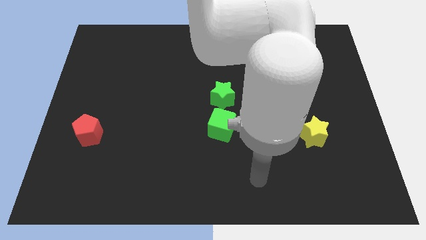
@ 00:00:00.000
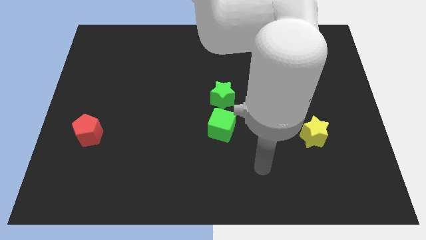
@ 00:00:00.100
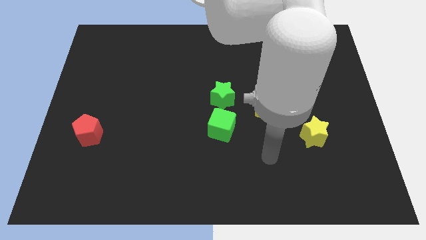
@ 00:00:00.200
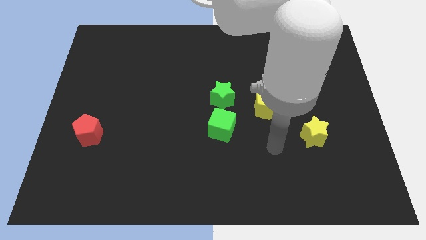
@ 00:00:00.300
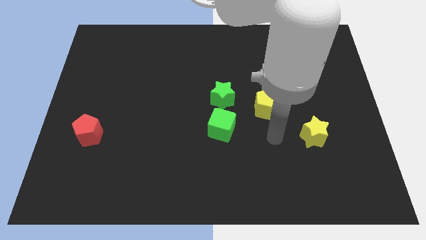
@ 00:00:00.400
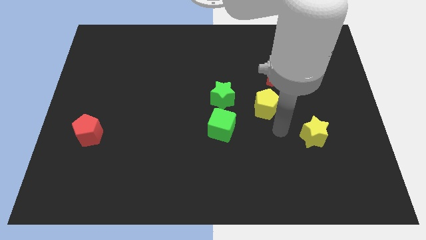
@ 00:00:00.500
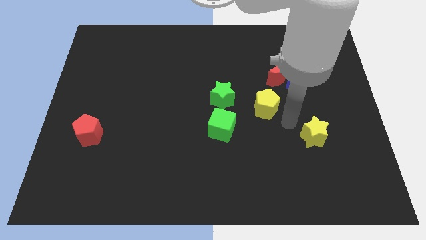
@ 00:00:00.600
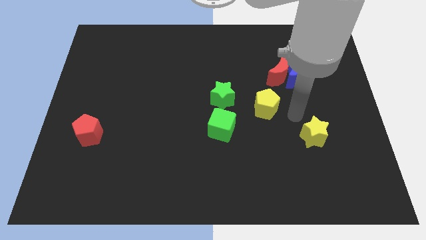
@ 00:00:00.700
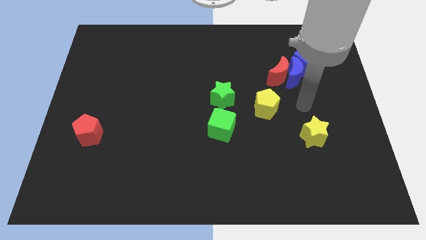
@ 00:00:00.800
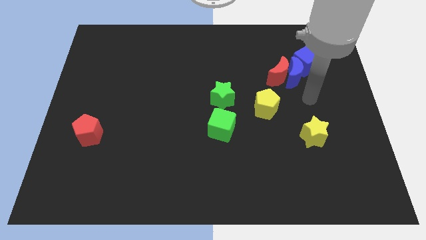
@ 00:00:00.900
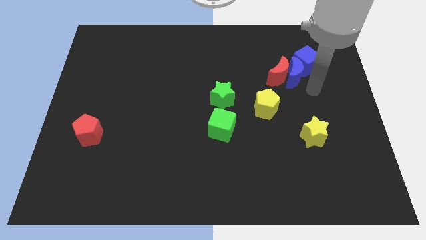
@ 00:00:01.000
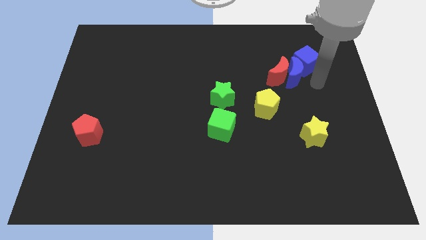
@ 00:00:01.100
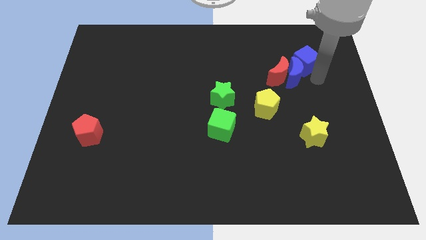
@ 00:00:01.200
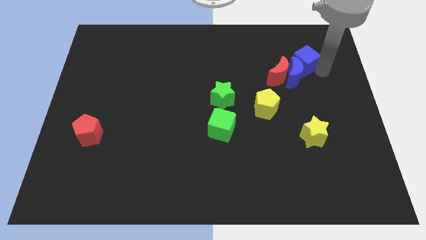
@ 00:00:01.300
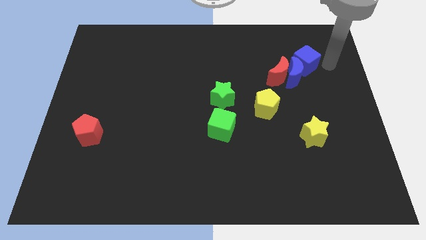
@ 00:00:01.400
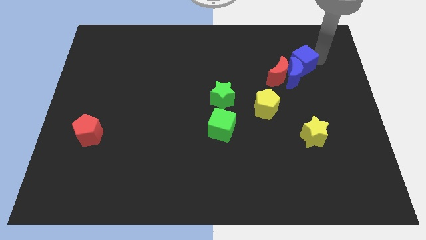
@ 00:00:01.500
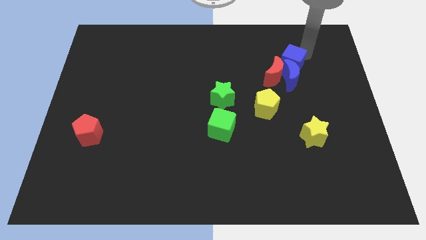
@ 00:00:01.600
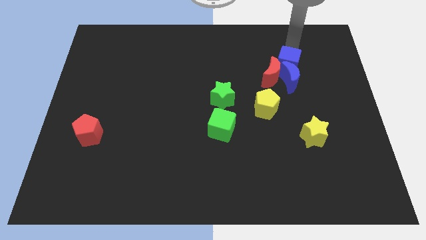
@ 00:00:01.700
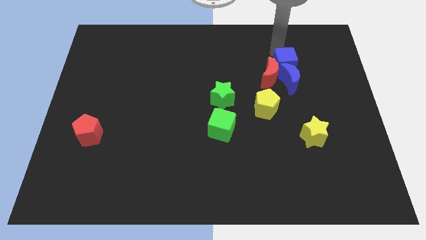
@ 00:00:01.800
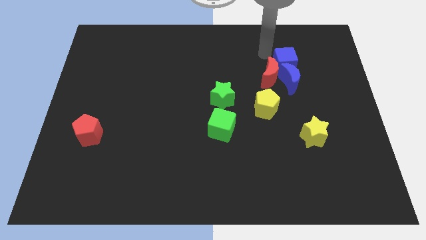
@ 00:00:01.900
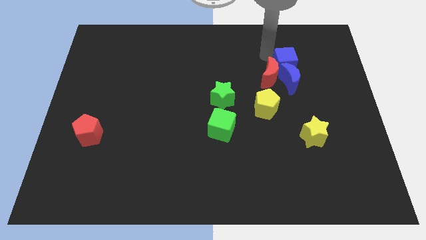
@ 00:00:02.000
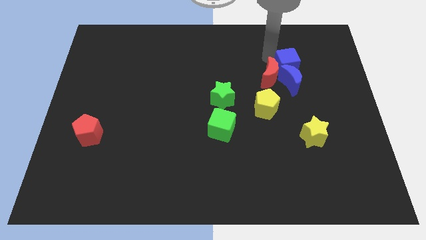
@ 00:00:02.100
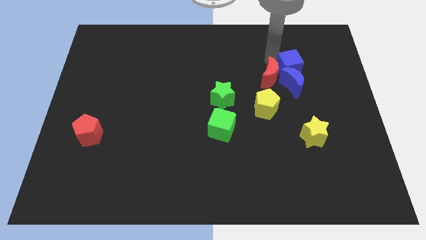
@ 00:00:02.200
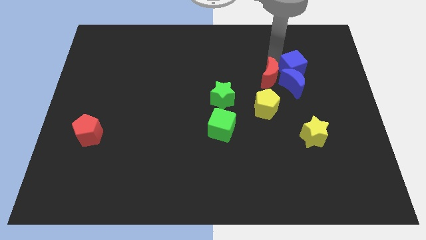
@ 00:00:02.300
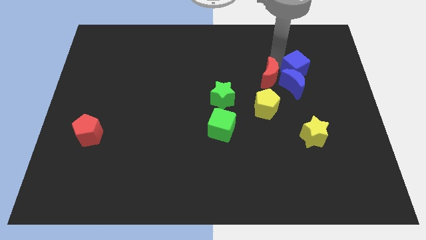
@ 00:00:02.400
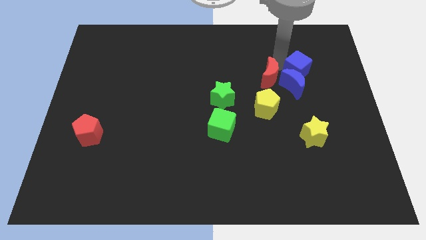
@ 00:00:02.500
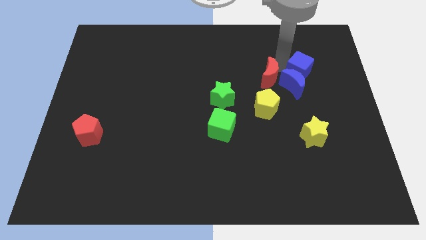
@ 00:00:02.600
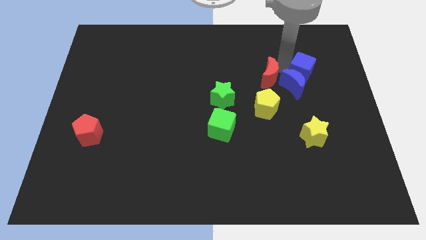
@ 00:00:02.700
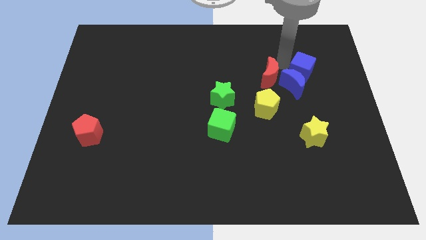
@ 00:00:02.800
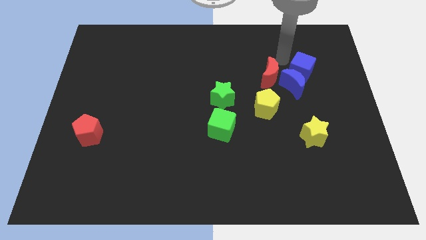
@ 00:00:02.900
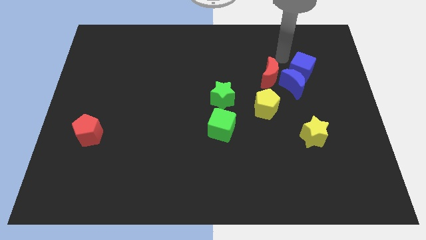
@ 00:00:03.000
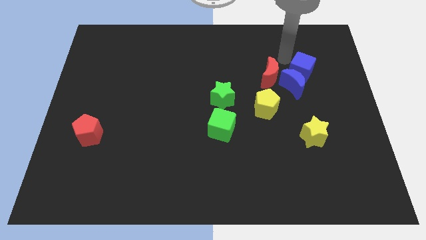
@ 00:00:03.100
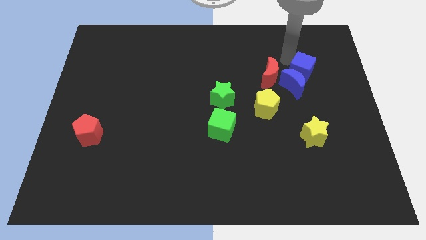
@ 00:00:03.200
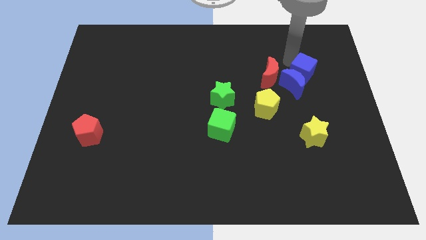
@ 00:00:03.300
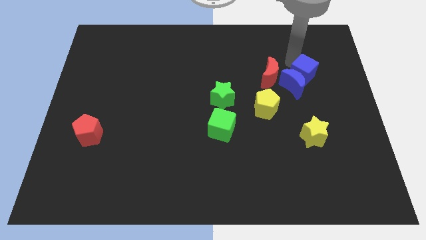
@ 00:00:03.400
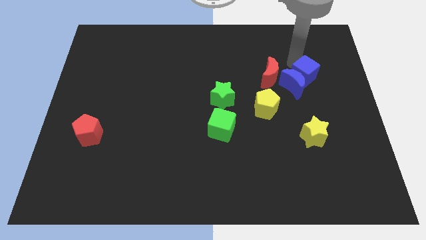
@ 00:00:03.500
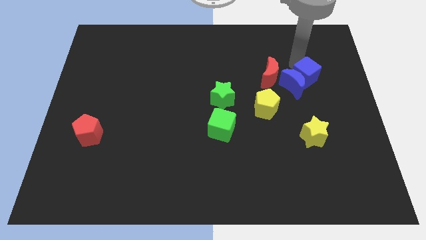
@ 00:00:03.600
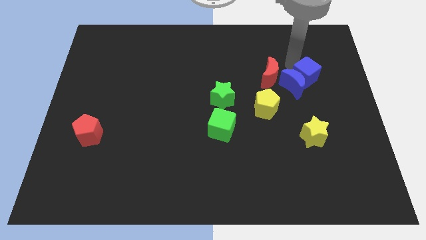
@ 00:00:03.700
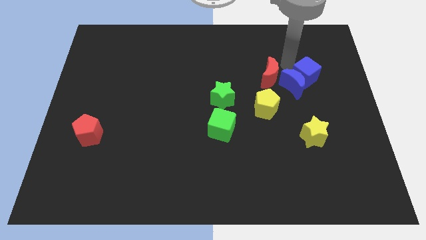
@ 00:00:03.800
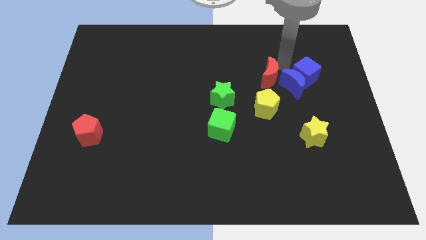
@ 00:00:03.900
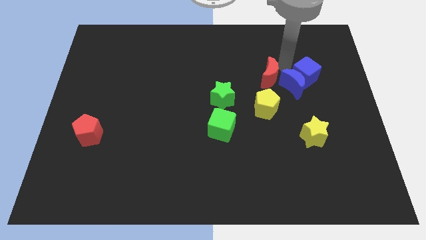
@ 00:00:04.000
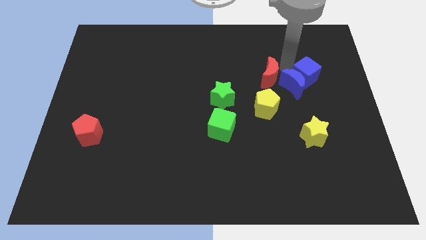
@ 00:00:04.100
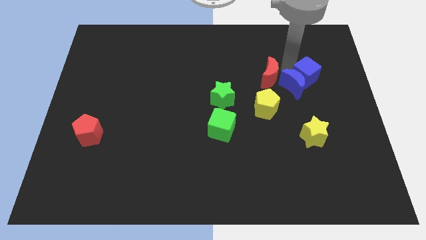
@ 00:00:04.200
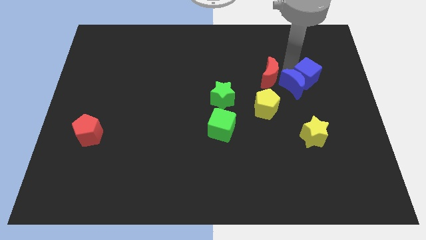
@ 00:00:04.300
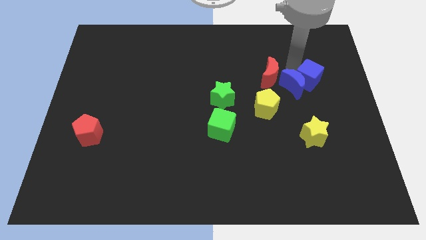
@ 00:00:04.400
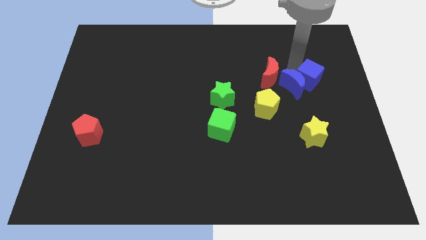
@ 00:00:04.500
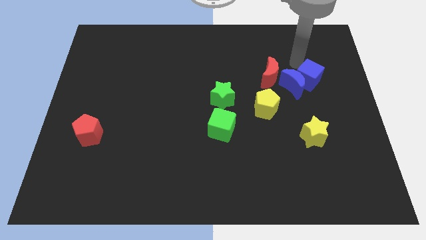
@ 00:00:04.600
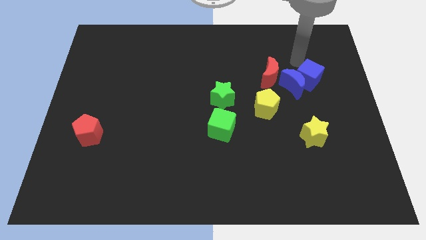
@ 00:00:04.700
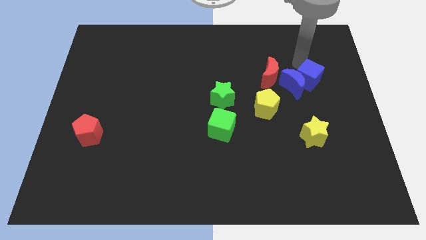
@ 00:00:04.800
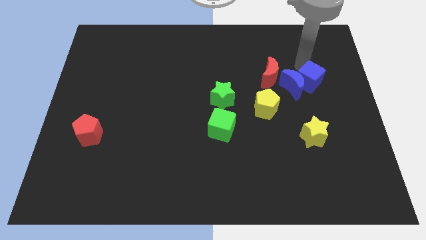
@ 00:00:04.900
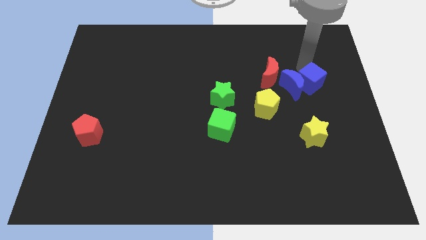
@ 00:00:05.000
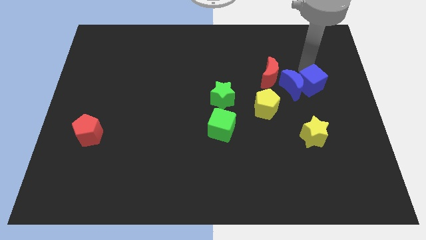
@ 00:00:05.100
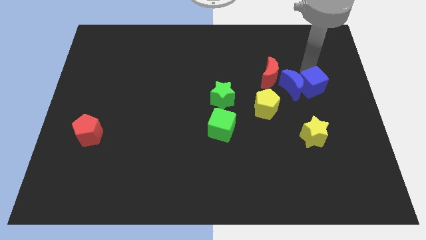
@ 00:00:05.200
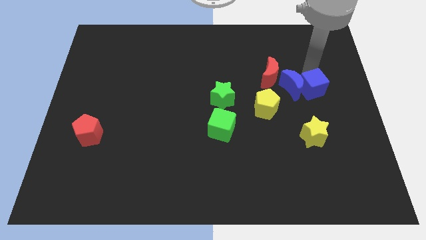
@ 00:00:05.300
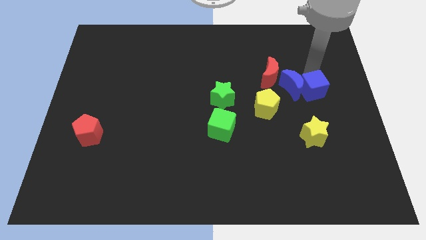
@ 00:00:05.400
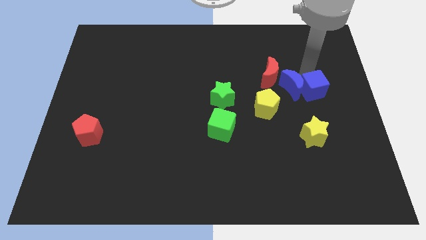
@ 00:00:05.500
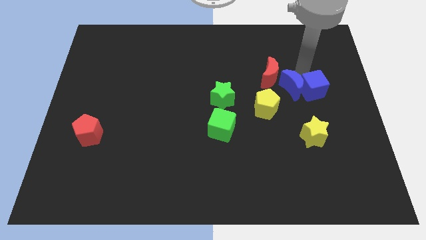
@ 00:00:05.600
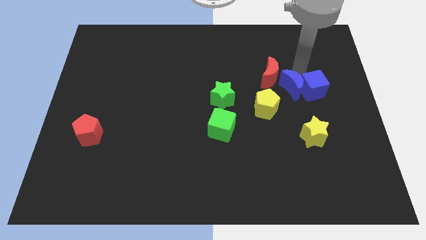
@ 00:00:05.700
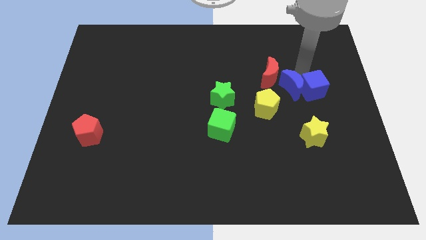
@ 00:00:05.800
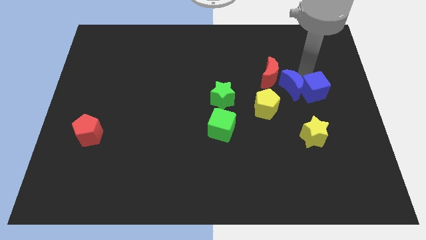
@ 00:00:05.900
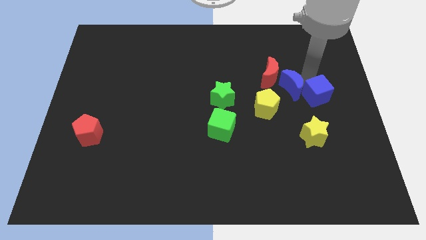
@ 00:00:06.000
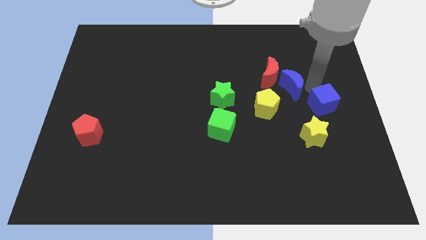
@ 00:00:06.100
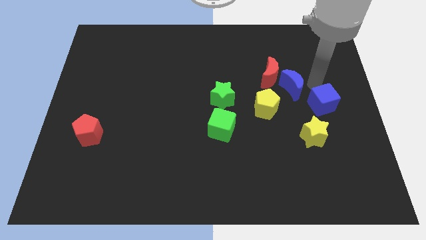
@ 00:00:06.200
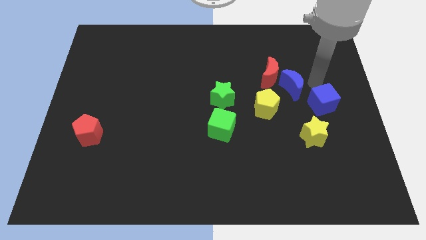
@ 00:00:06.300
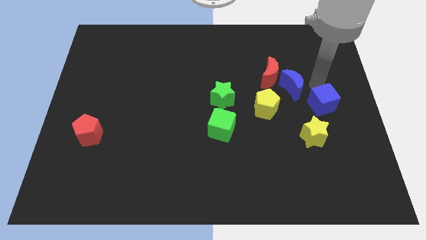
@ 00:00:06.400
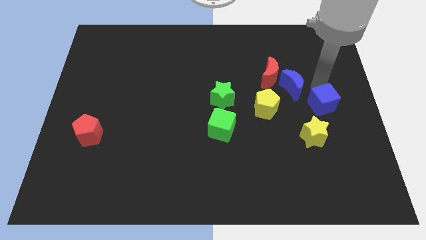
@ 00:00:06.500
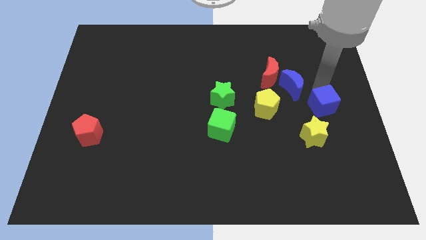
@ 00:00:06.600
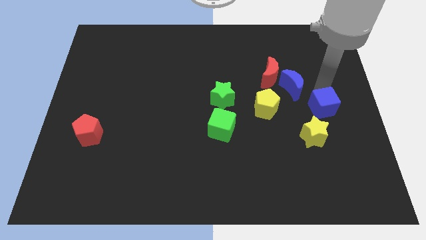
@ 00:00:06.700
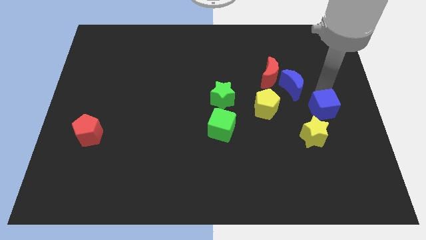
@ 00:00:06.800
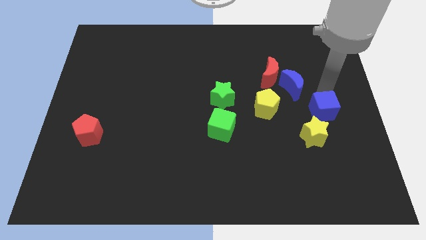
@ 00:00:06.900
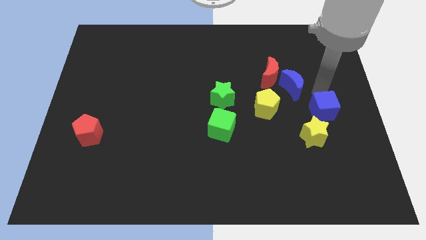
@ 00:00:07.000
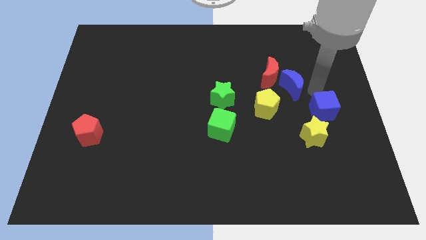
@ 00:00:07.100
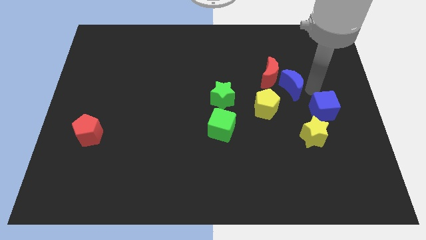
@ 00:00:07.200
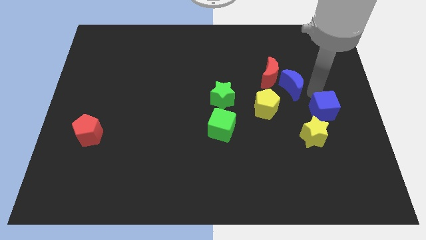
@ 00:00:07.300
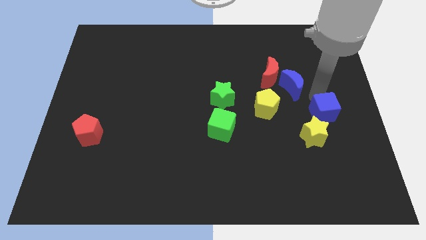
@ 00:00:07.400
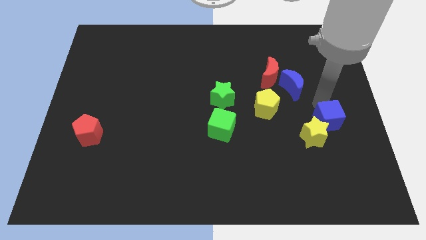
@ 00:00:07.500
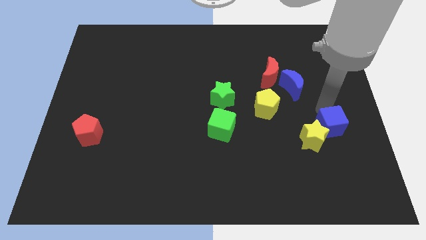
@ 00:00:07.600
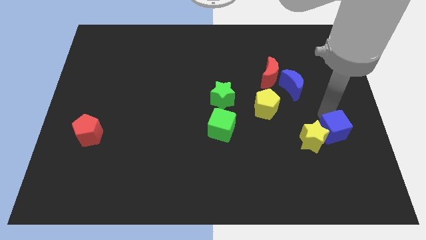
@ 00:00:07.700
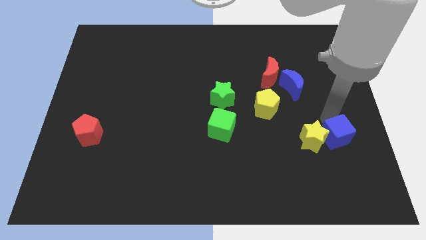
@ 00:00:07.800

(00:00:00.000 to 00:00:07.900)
slide the blue cube diagonally down and to the right of the yellow star
